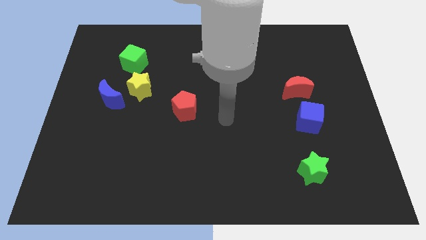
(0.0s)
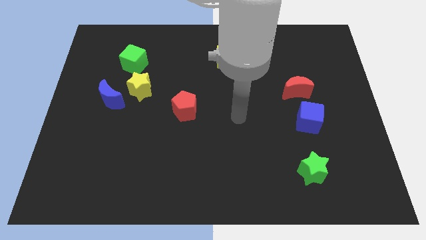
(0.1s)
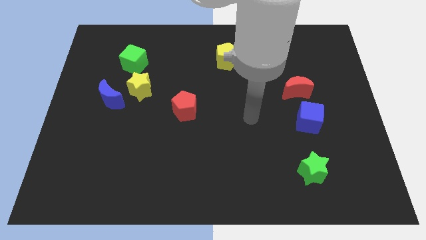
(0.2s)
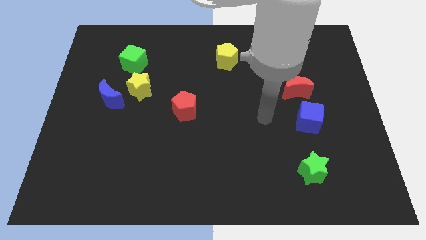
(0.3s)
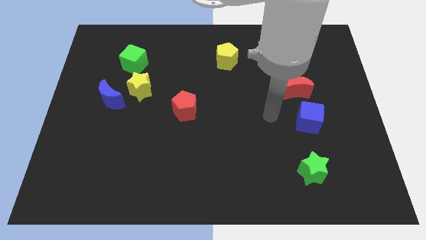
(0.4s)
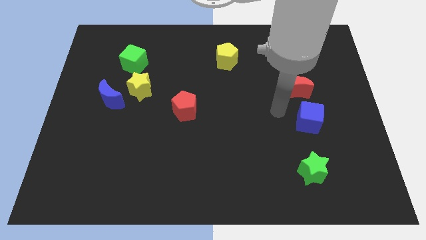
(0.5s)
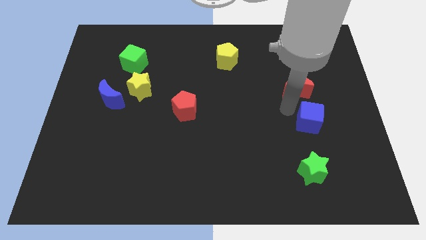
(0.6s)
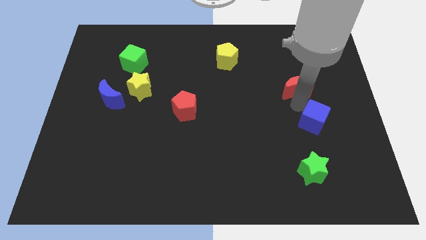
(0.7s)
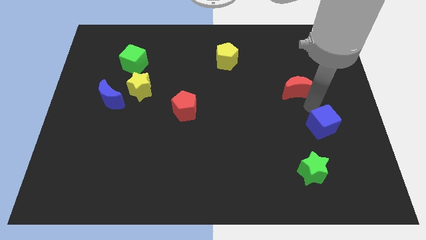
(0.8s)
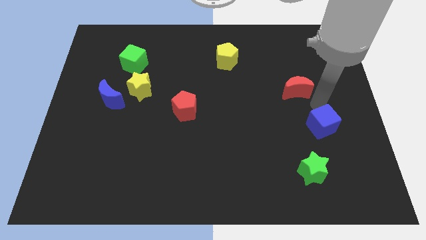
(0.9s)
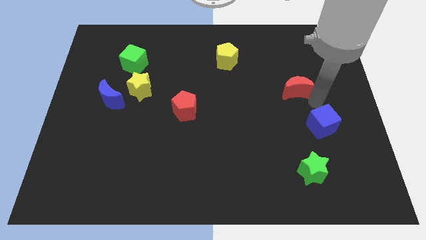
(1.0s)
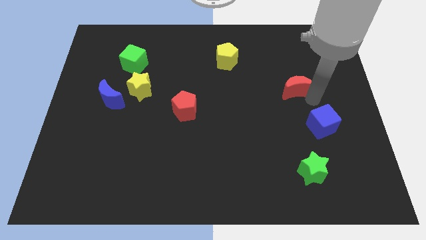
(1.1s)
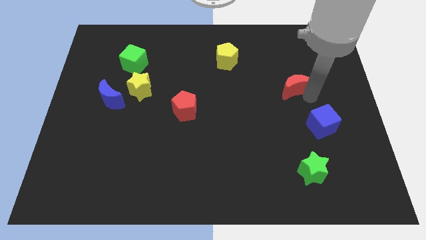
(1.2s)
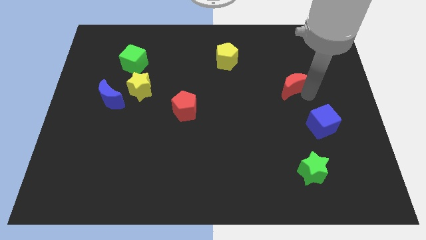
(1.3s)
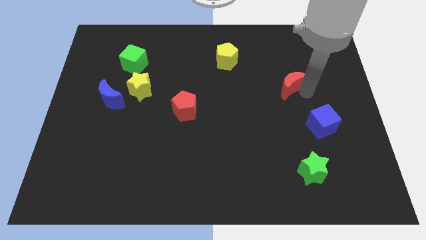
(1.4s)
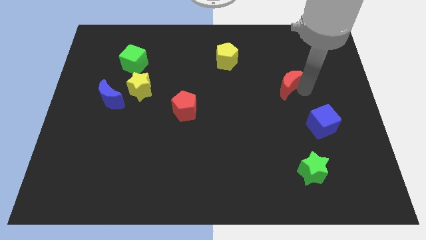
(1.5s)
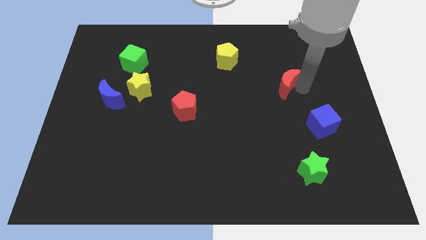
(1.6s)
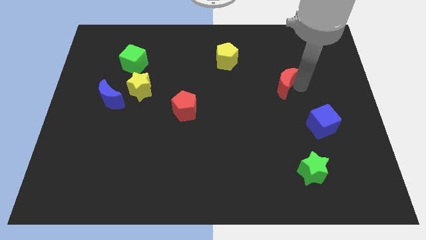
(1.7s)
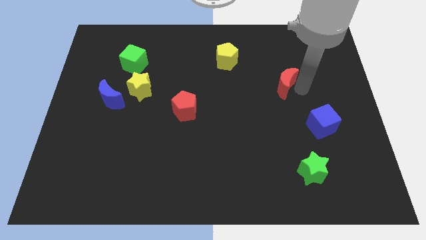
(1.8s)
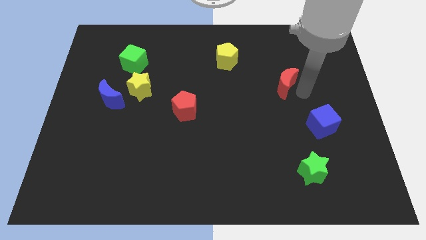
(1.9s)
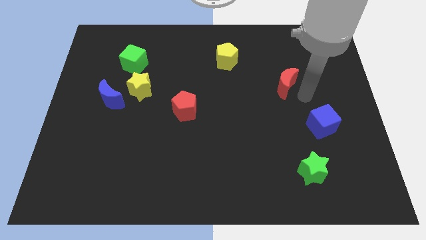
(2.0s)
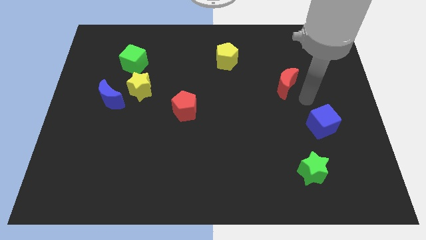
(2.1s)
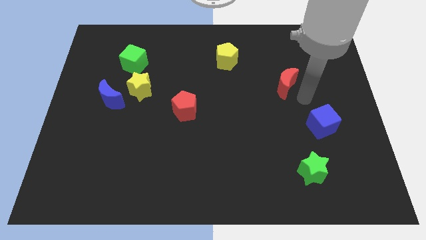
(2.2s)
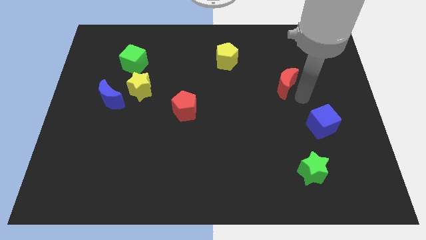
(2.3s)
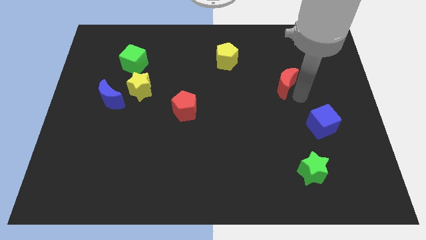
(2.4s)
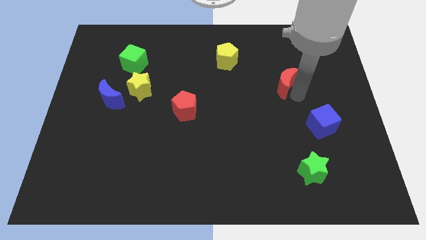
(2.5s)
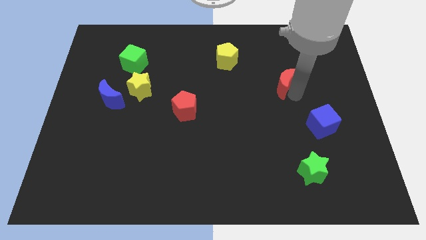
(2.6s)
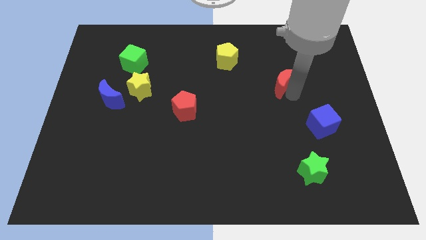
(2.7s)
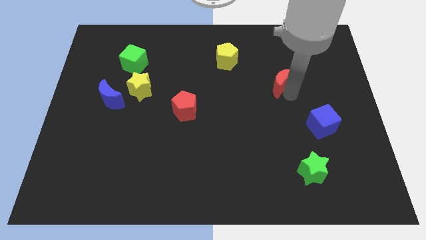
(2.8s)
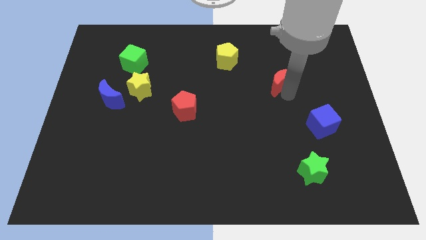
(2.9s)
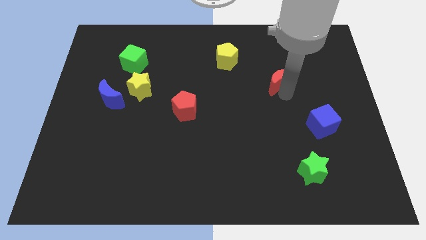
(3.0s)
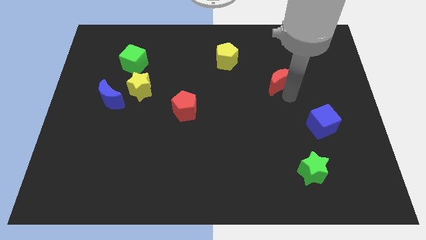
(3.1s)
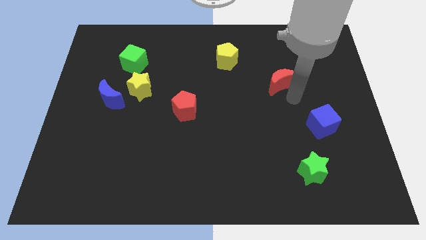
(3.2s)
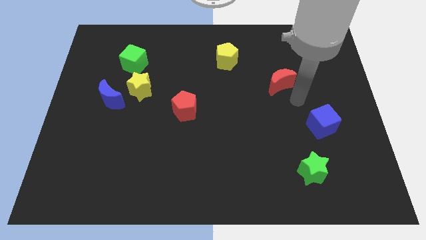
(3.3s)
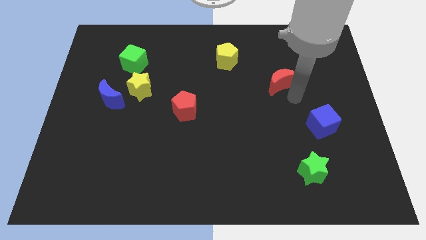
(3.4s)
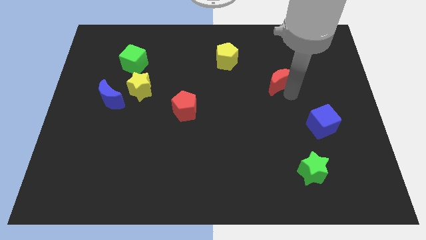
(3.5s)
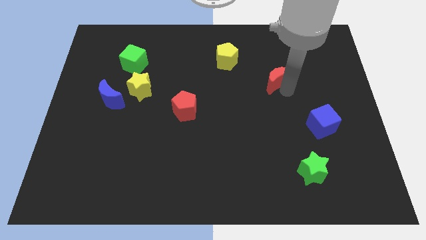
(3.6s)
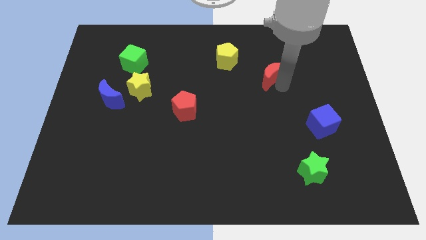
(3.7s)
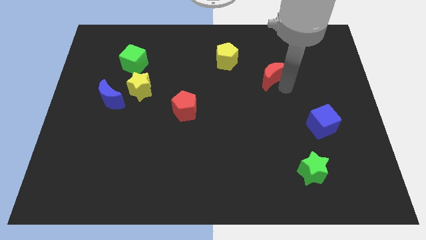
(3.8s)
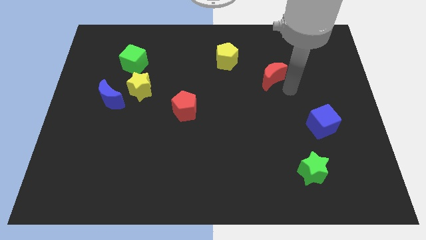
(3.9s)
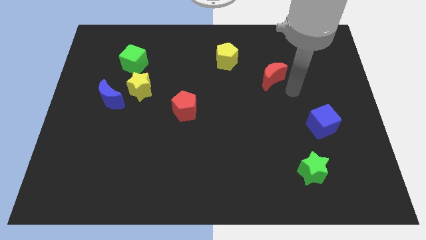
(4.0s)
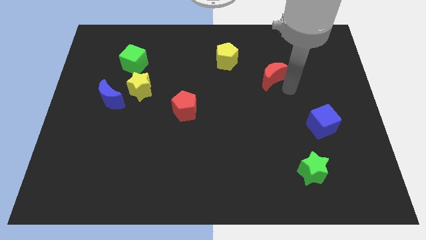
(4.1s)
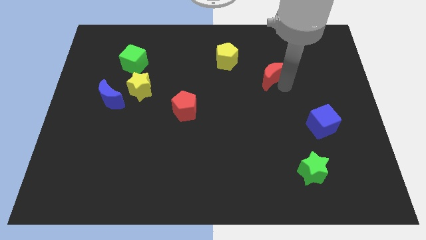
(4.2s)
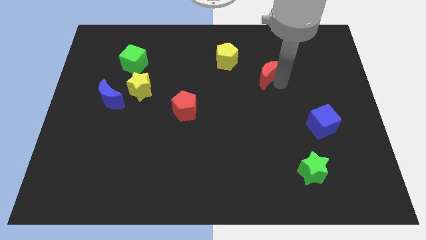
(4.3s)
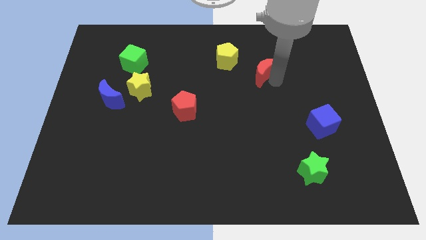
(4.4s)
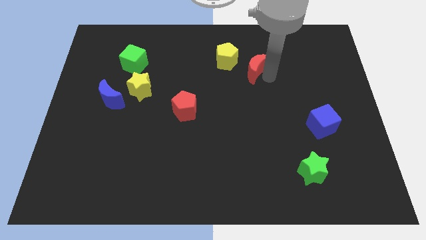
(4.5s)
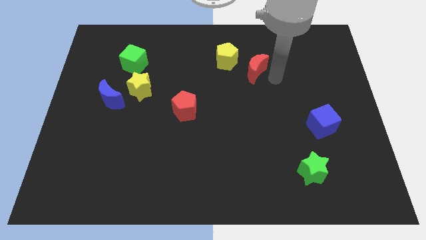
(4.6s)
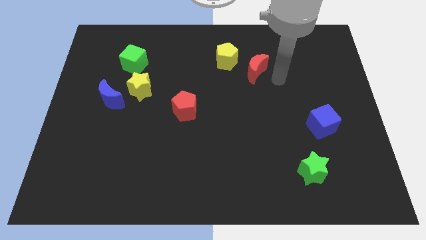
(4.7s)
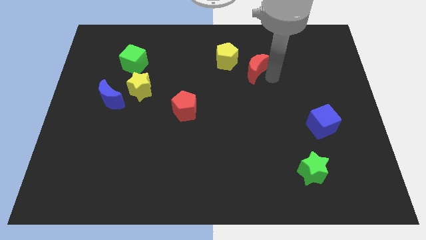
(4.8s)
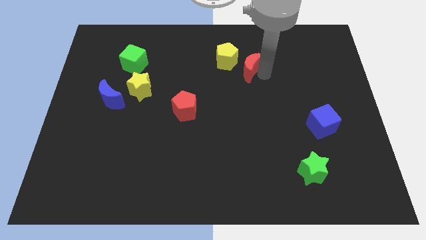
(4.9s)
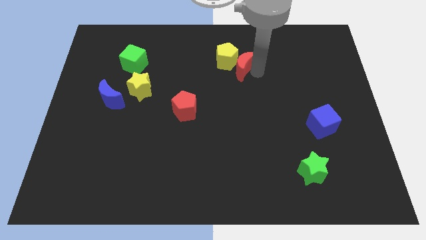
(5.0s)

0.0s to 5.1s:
slide the red moon next to the yellow pentagon

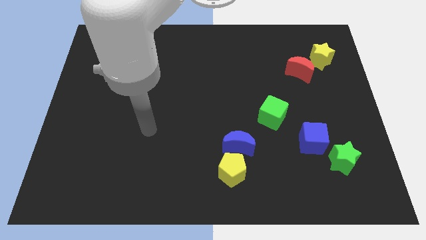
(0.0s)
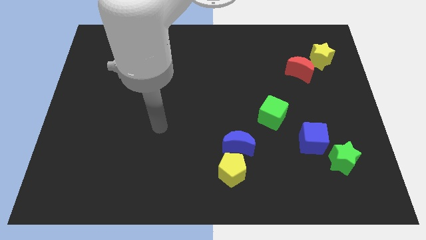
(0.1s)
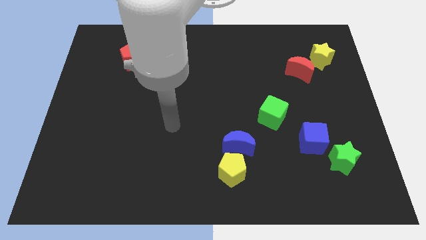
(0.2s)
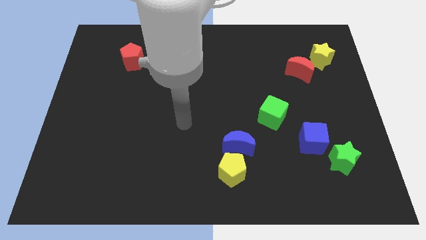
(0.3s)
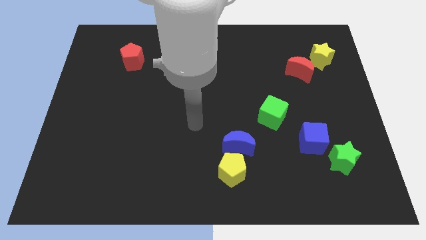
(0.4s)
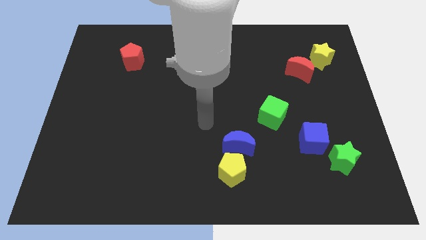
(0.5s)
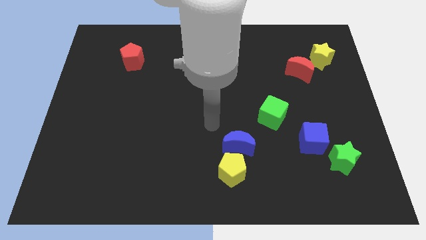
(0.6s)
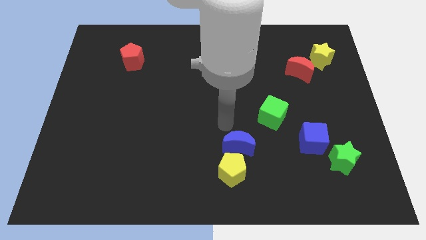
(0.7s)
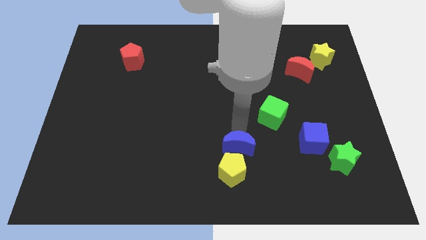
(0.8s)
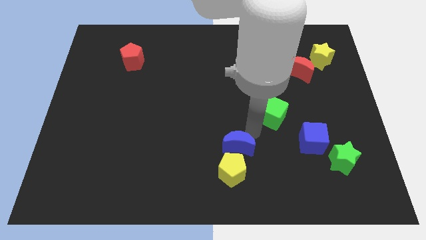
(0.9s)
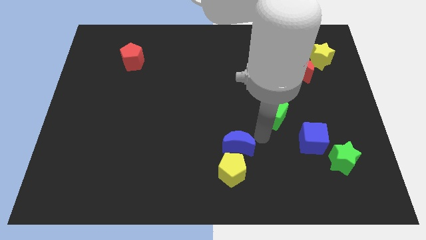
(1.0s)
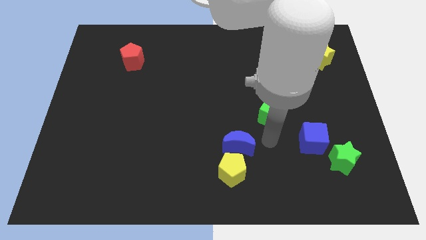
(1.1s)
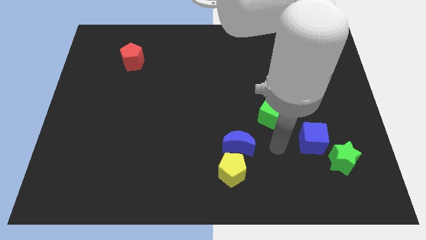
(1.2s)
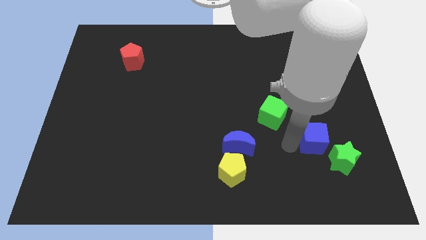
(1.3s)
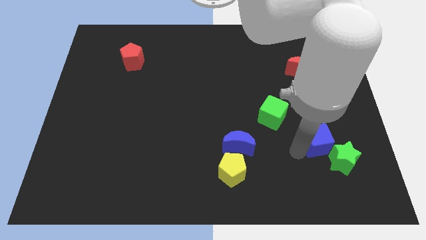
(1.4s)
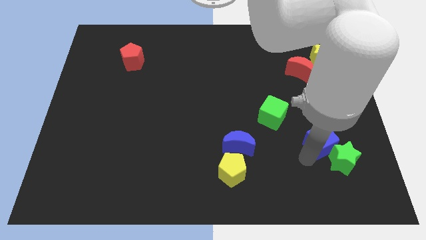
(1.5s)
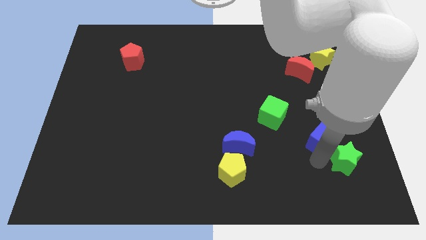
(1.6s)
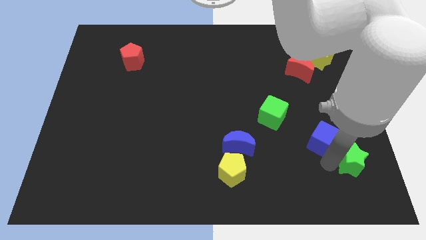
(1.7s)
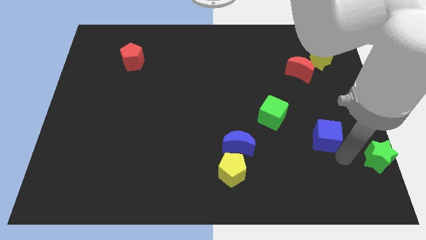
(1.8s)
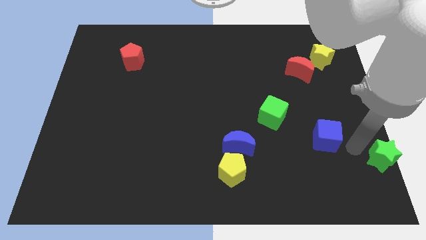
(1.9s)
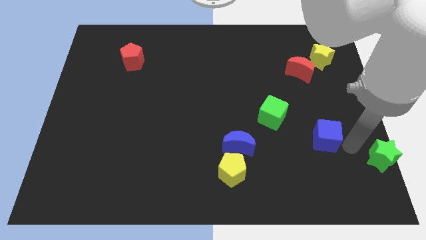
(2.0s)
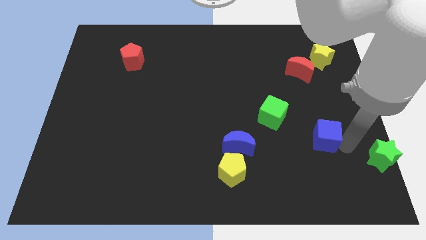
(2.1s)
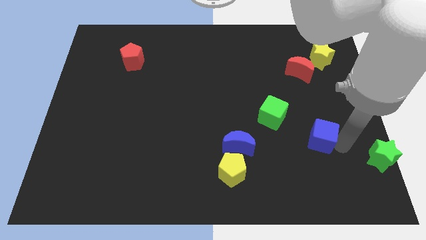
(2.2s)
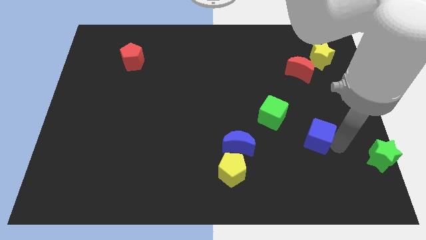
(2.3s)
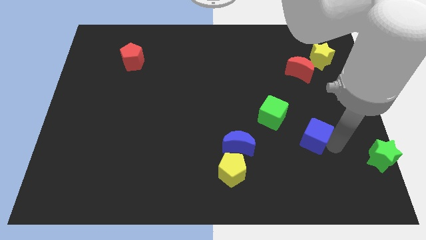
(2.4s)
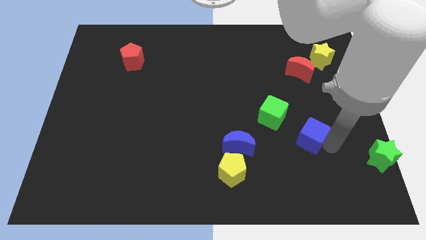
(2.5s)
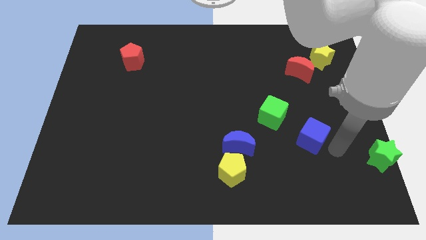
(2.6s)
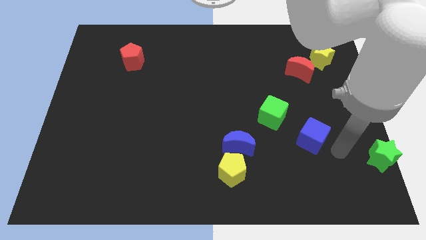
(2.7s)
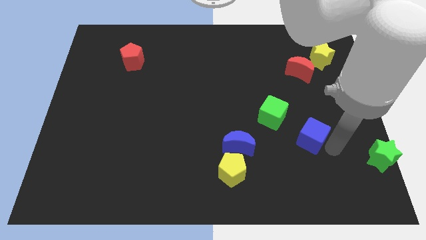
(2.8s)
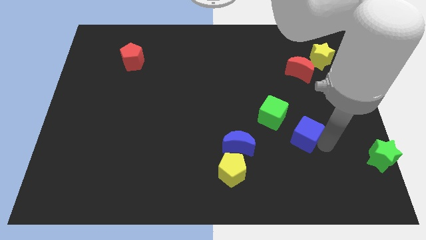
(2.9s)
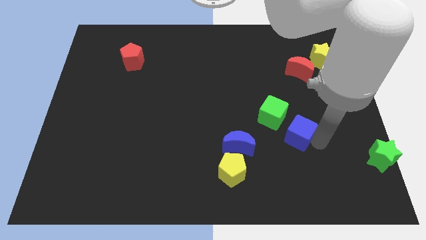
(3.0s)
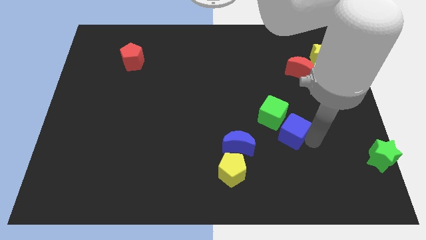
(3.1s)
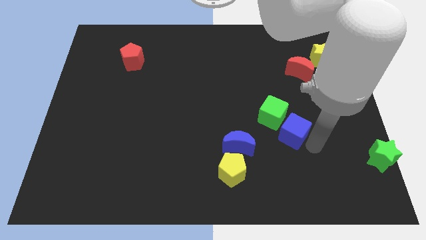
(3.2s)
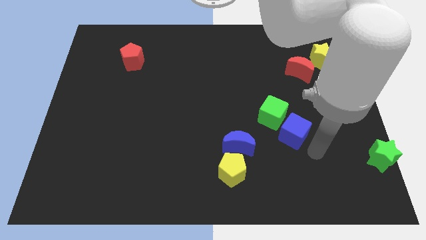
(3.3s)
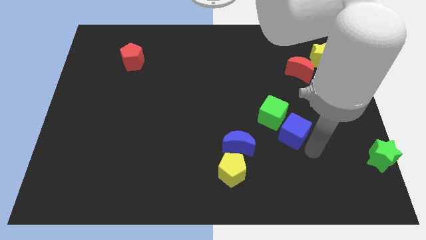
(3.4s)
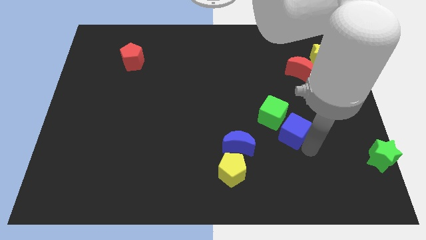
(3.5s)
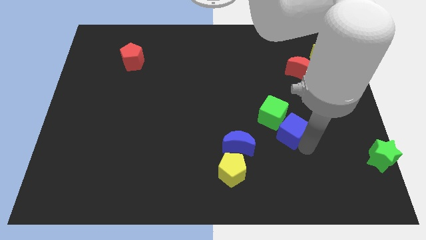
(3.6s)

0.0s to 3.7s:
slide the blue cube close to the green cube
